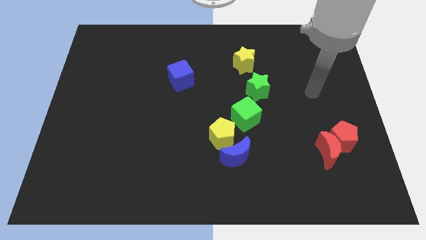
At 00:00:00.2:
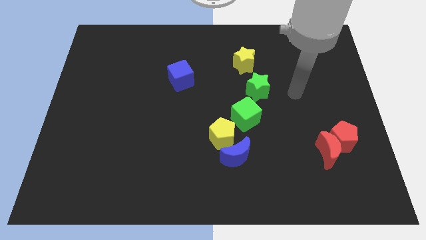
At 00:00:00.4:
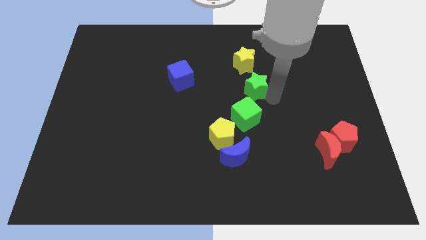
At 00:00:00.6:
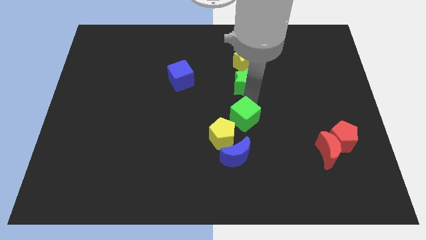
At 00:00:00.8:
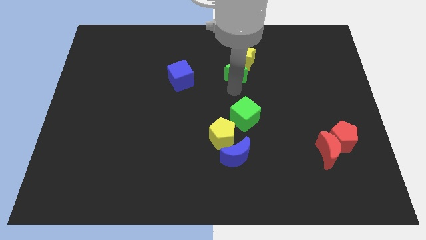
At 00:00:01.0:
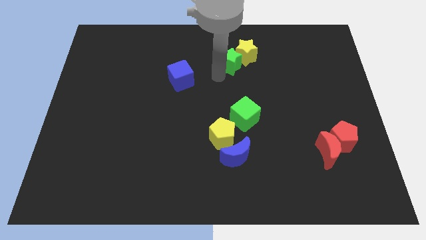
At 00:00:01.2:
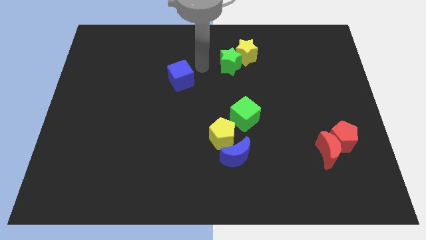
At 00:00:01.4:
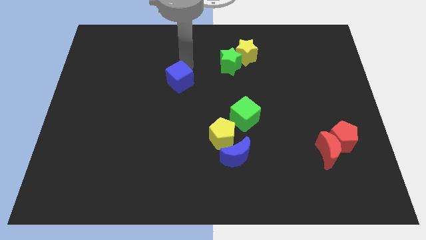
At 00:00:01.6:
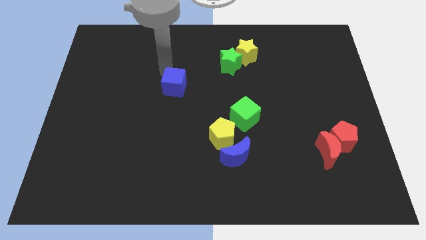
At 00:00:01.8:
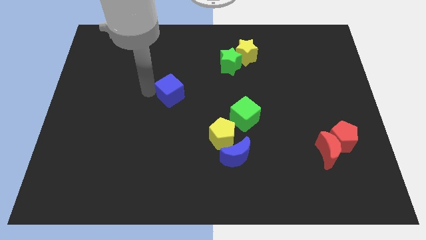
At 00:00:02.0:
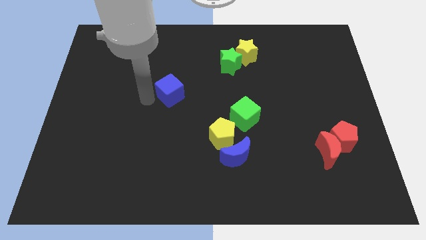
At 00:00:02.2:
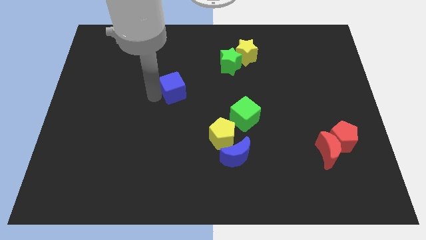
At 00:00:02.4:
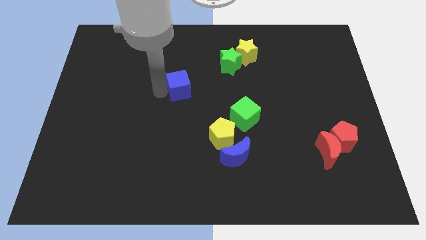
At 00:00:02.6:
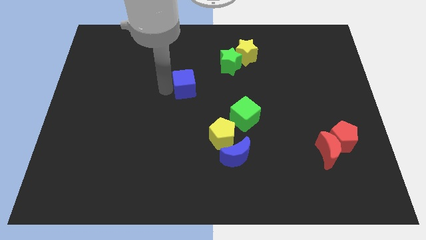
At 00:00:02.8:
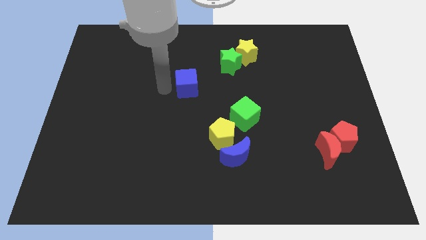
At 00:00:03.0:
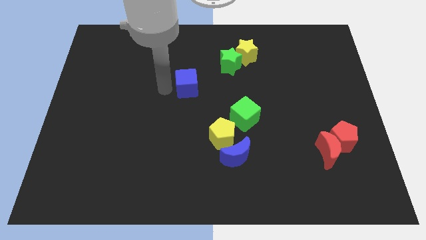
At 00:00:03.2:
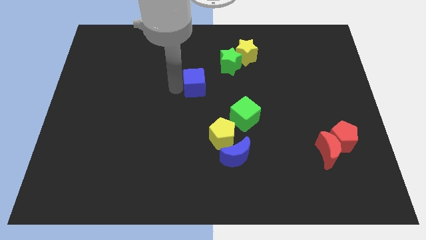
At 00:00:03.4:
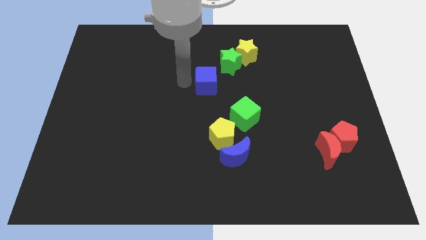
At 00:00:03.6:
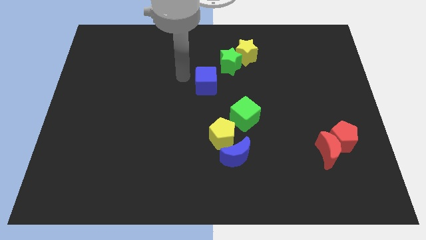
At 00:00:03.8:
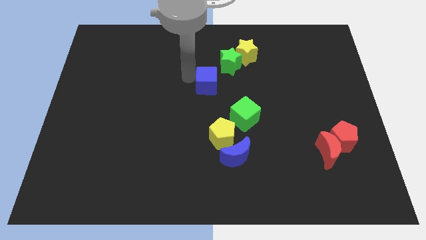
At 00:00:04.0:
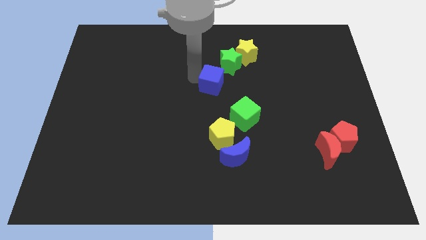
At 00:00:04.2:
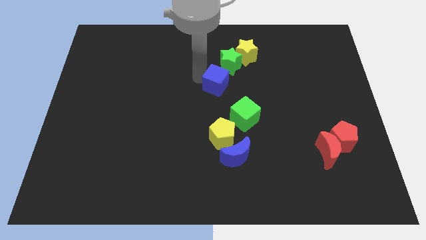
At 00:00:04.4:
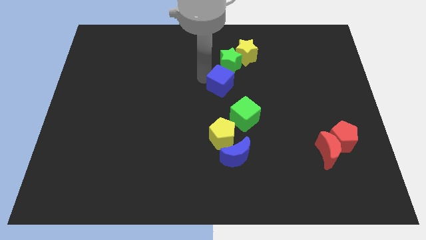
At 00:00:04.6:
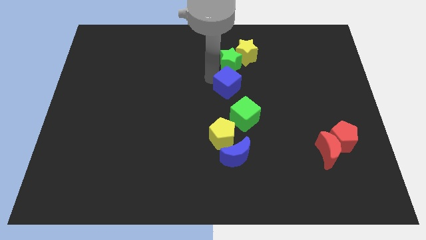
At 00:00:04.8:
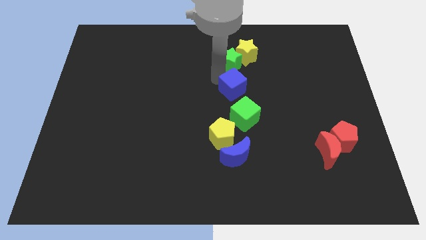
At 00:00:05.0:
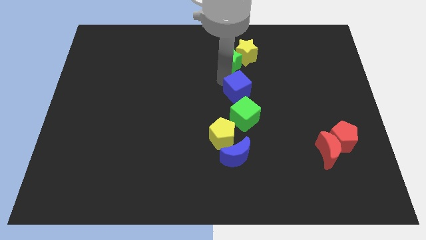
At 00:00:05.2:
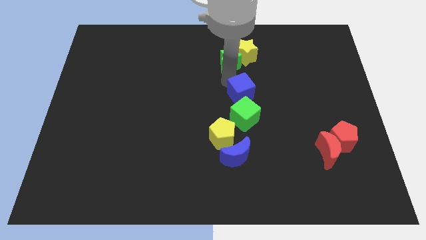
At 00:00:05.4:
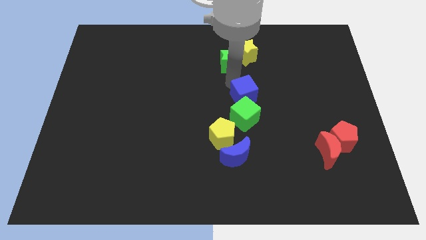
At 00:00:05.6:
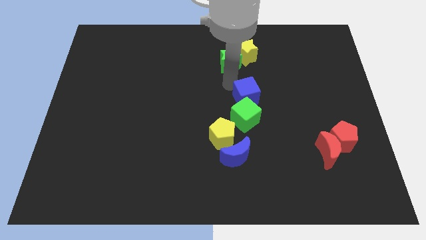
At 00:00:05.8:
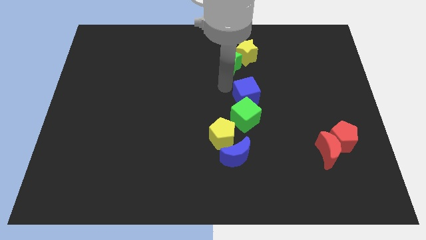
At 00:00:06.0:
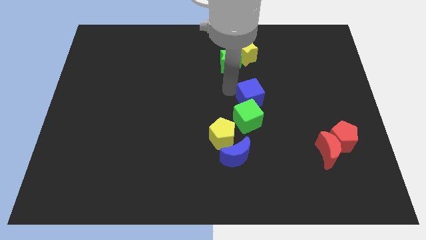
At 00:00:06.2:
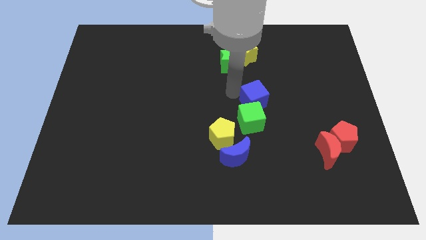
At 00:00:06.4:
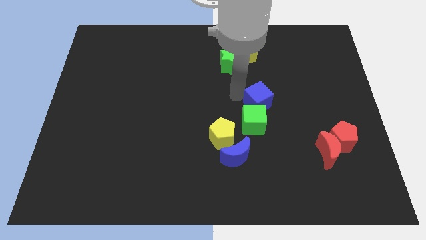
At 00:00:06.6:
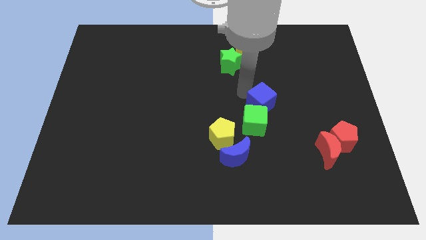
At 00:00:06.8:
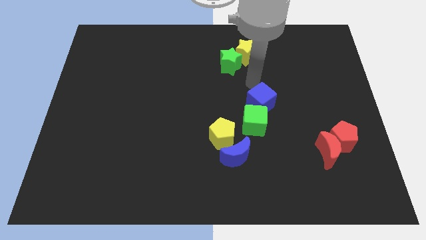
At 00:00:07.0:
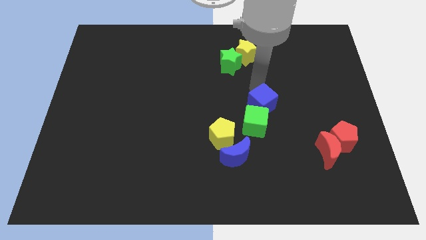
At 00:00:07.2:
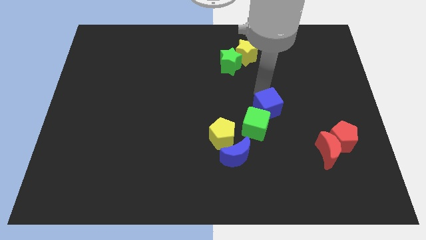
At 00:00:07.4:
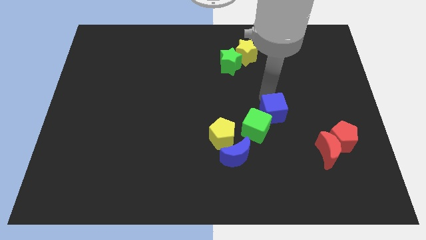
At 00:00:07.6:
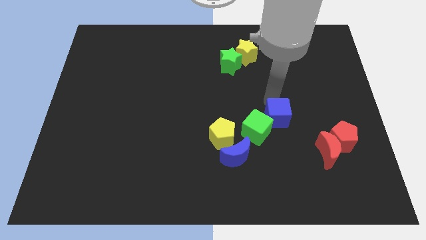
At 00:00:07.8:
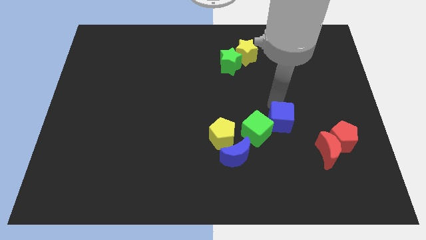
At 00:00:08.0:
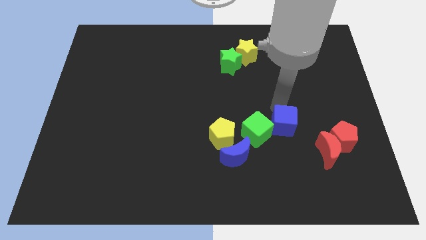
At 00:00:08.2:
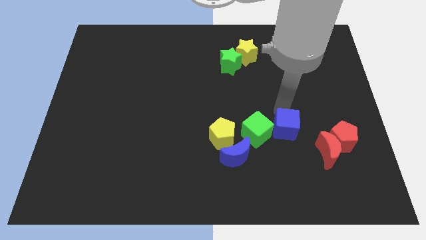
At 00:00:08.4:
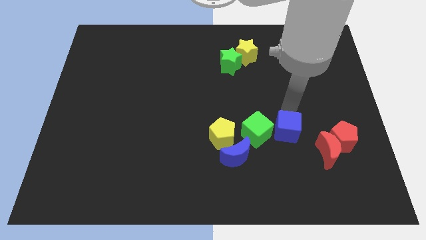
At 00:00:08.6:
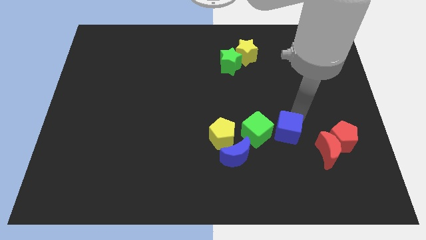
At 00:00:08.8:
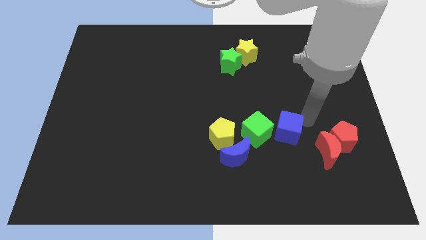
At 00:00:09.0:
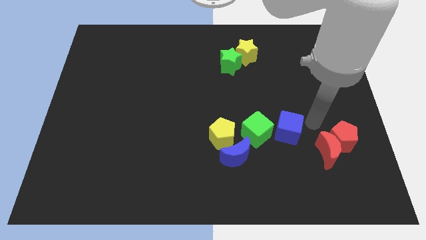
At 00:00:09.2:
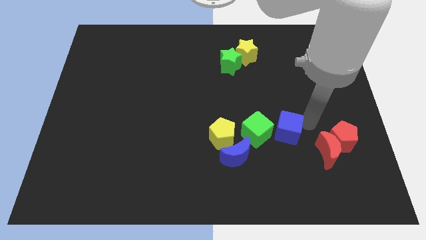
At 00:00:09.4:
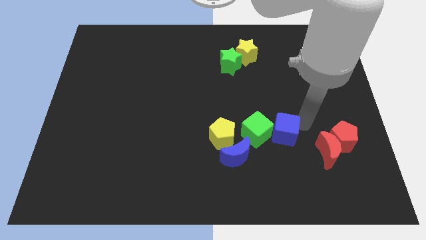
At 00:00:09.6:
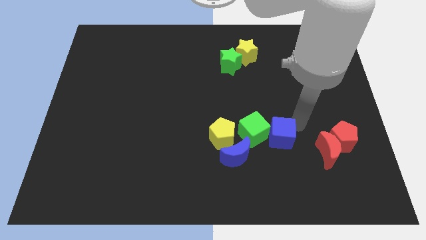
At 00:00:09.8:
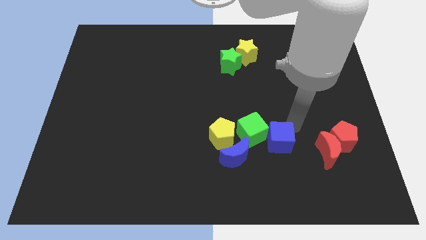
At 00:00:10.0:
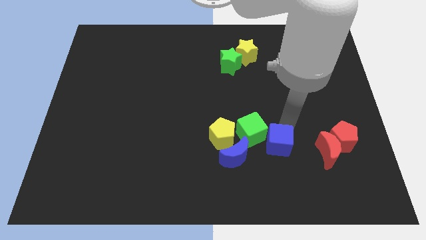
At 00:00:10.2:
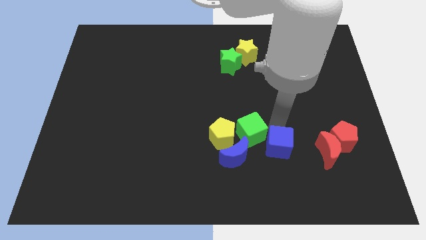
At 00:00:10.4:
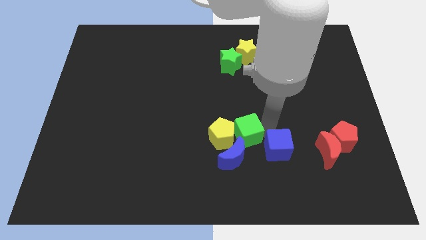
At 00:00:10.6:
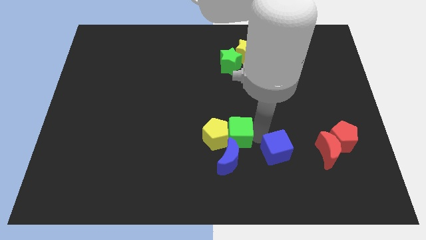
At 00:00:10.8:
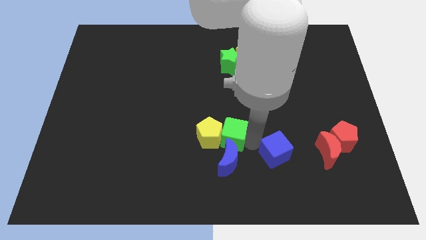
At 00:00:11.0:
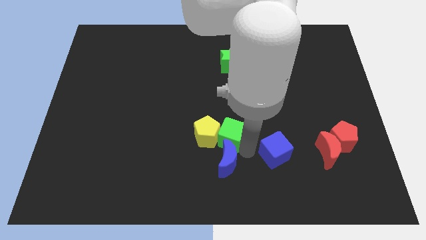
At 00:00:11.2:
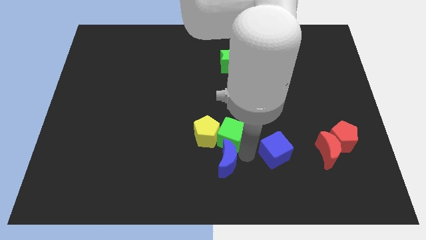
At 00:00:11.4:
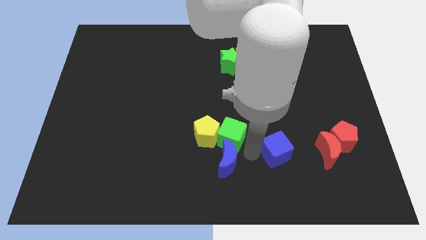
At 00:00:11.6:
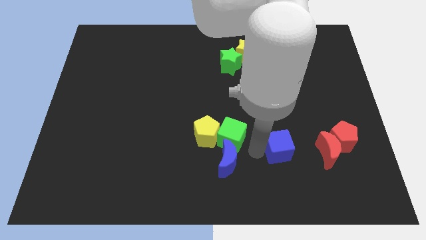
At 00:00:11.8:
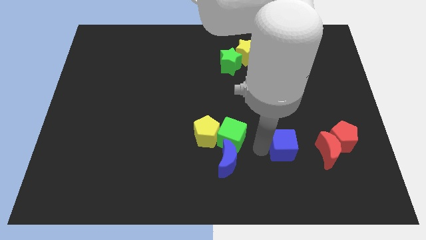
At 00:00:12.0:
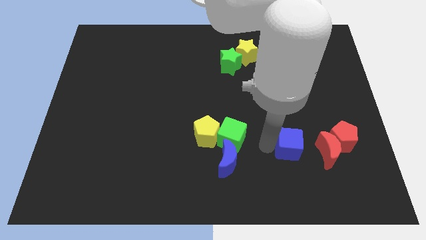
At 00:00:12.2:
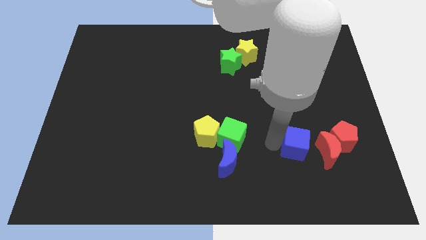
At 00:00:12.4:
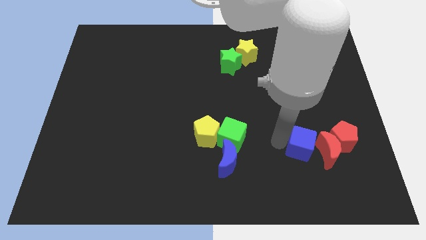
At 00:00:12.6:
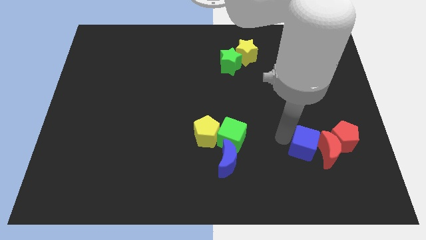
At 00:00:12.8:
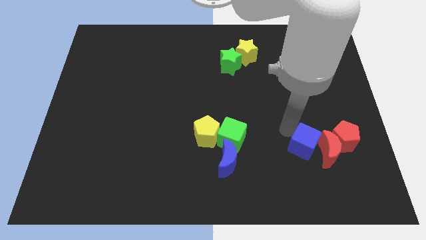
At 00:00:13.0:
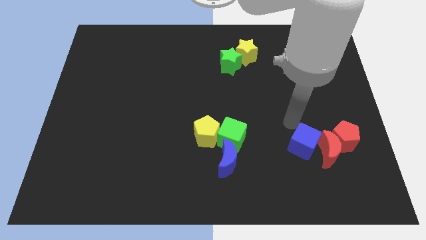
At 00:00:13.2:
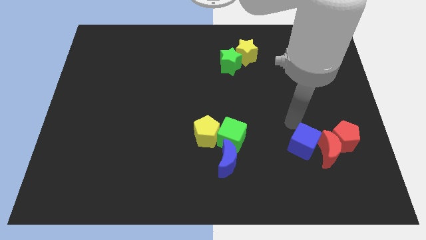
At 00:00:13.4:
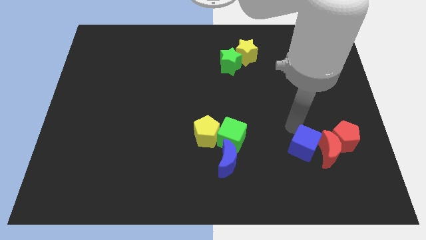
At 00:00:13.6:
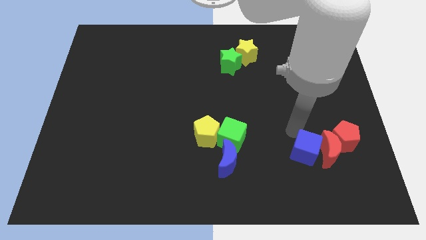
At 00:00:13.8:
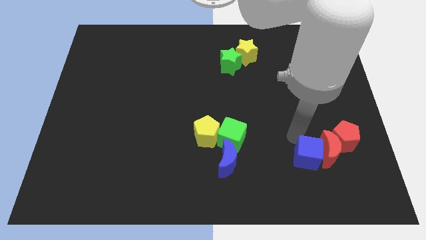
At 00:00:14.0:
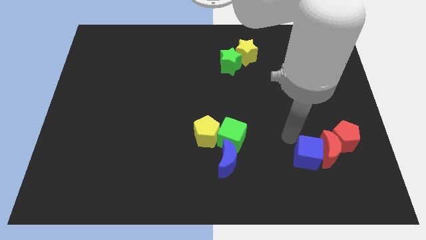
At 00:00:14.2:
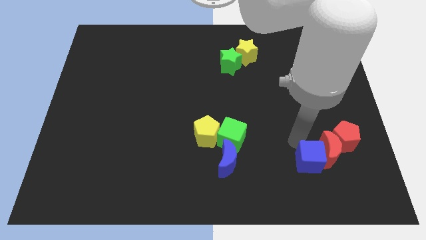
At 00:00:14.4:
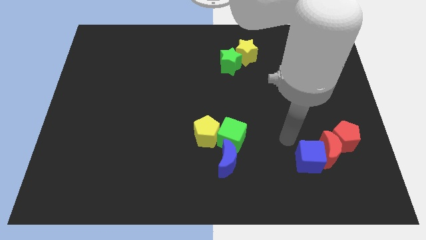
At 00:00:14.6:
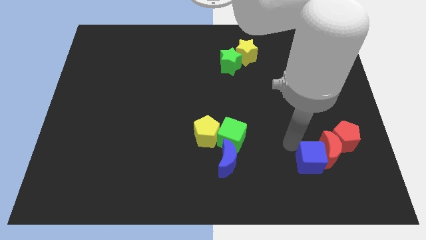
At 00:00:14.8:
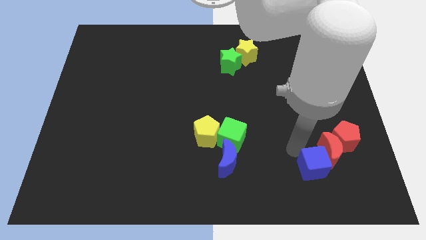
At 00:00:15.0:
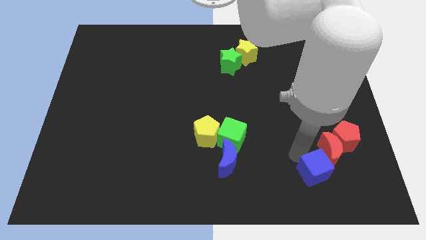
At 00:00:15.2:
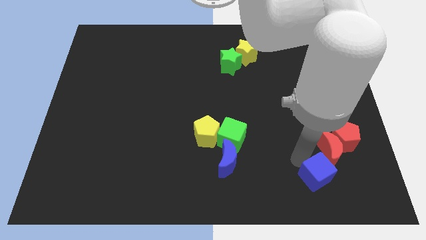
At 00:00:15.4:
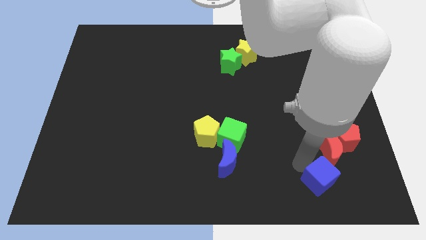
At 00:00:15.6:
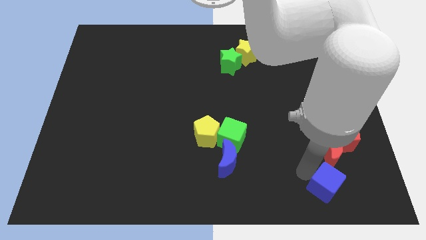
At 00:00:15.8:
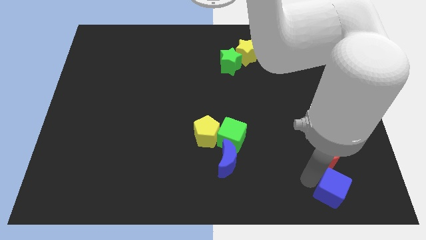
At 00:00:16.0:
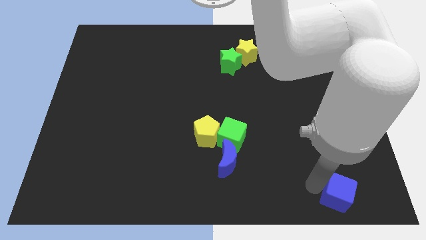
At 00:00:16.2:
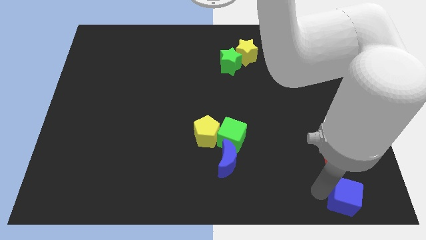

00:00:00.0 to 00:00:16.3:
push the blue cube to the bottom right
